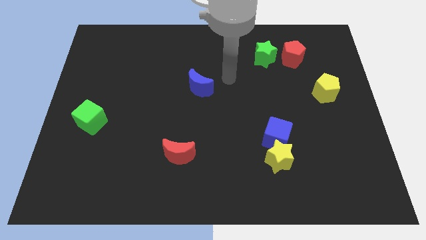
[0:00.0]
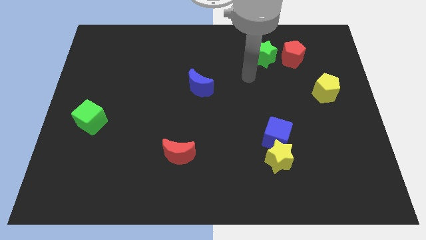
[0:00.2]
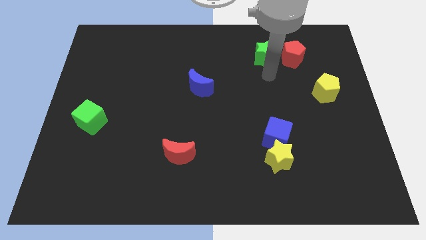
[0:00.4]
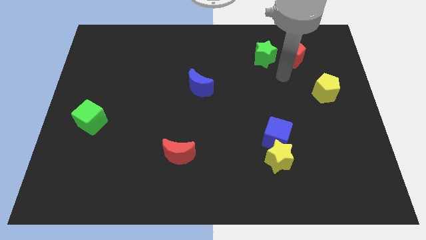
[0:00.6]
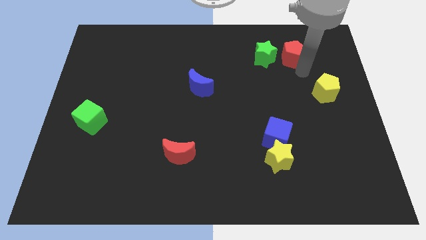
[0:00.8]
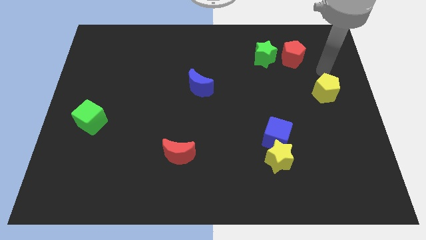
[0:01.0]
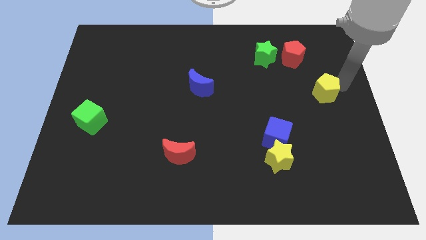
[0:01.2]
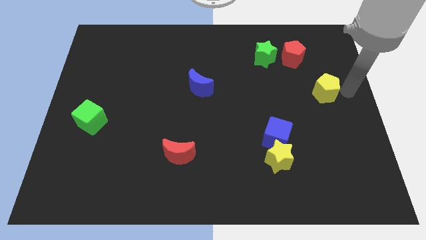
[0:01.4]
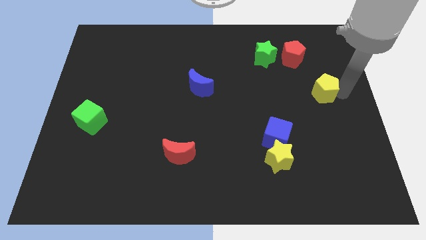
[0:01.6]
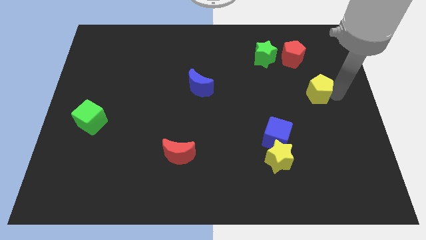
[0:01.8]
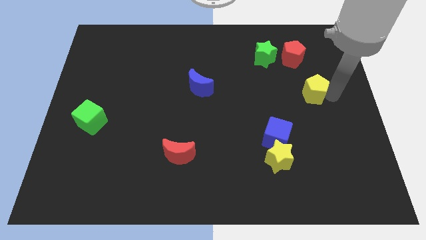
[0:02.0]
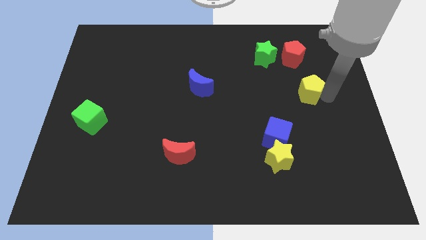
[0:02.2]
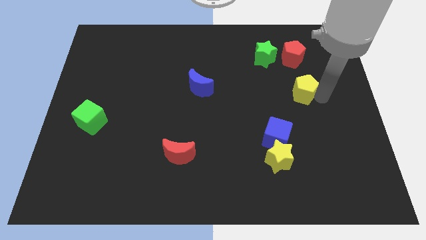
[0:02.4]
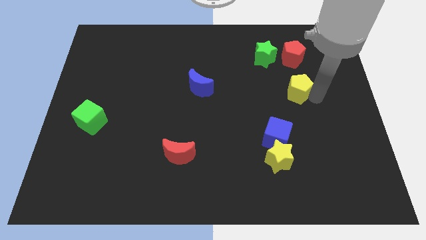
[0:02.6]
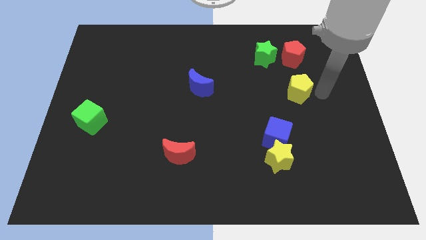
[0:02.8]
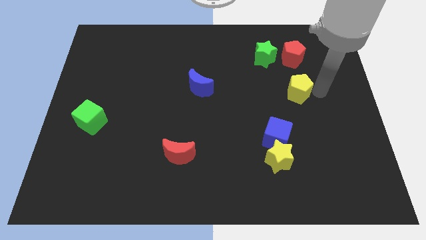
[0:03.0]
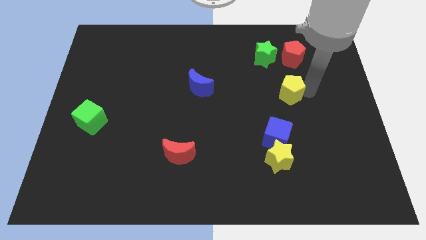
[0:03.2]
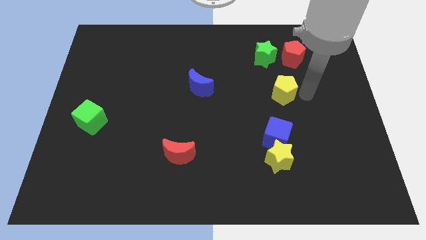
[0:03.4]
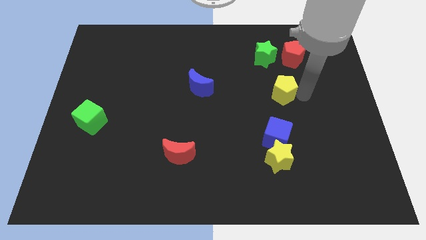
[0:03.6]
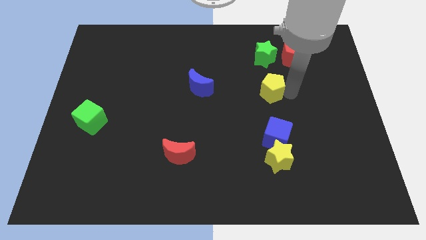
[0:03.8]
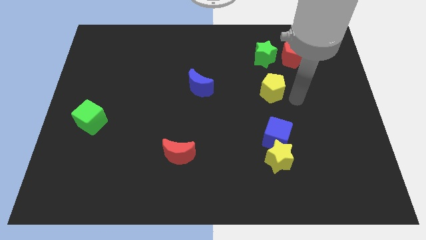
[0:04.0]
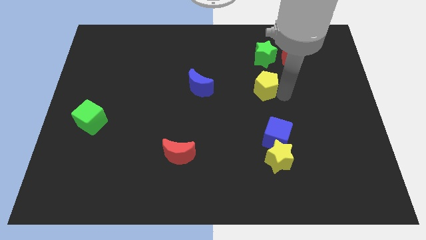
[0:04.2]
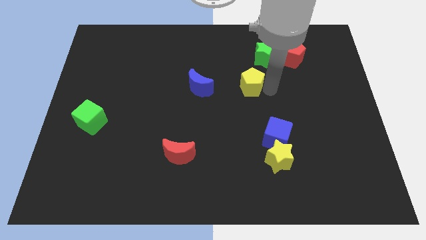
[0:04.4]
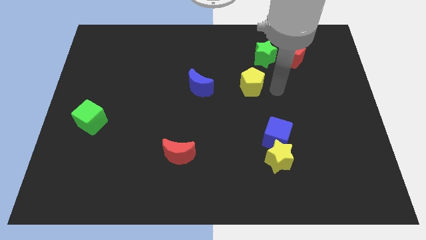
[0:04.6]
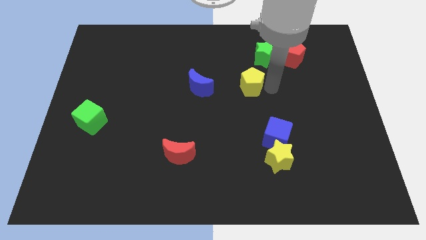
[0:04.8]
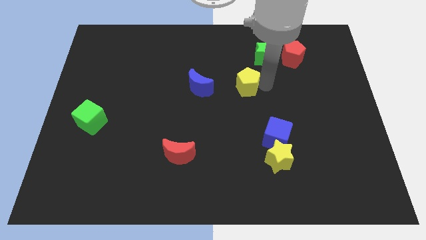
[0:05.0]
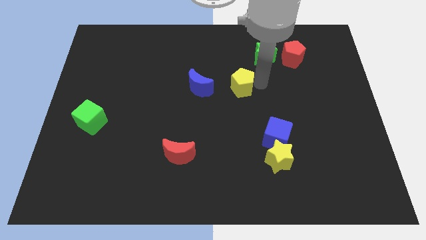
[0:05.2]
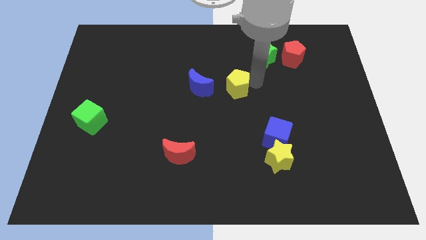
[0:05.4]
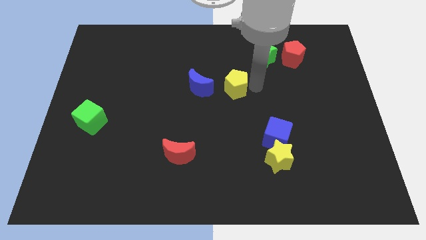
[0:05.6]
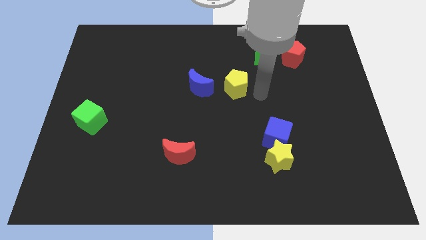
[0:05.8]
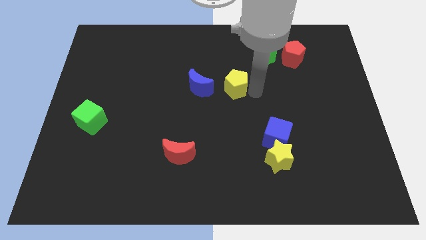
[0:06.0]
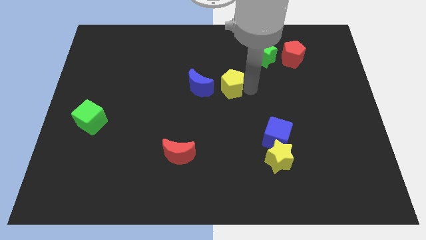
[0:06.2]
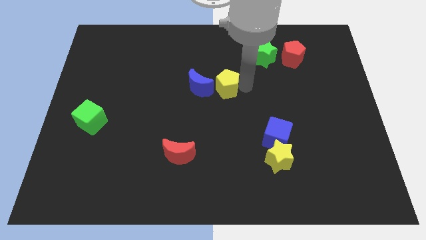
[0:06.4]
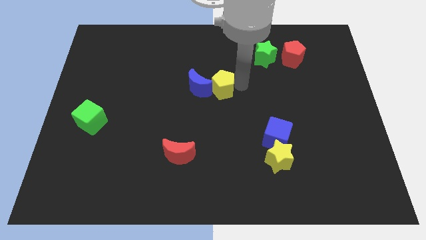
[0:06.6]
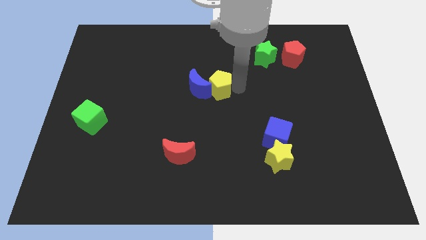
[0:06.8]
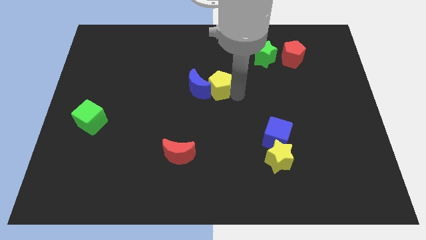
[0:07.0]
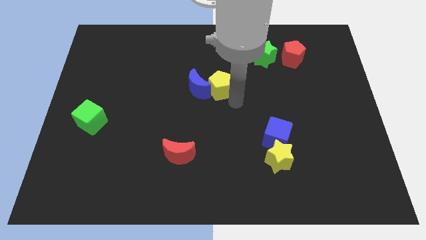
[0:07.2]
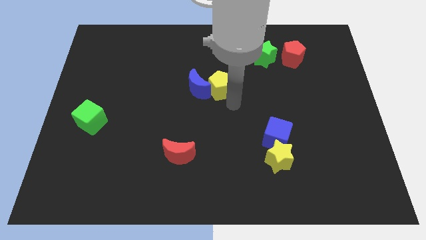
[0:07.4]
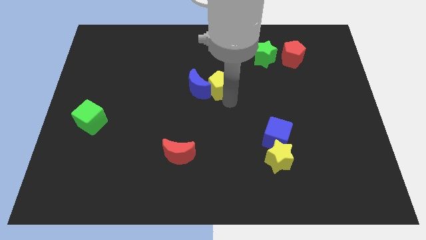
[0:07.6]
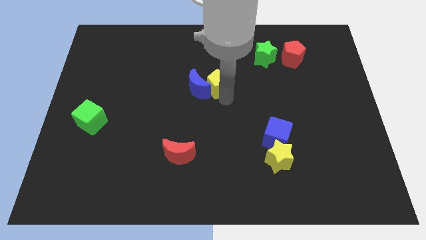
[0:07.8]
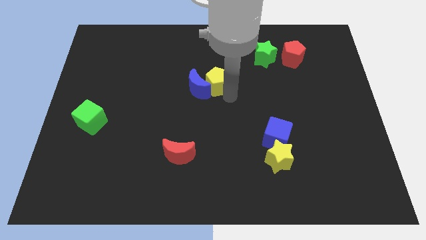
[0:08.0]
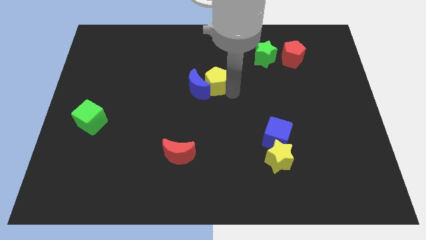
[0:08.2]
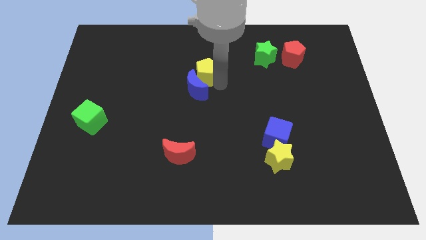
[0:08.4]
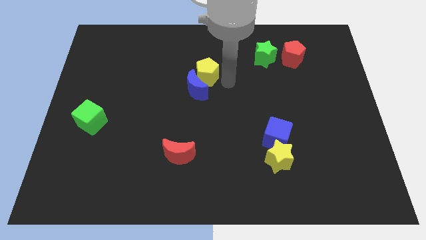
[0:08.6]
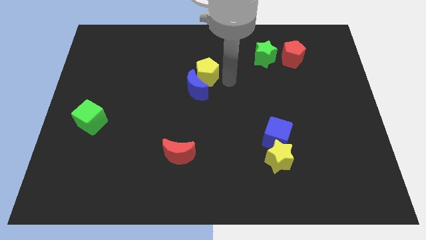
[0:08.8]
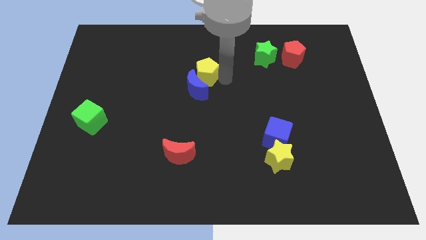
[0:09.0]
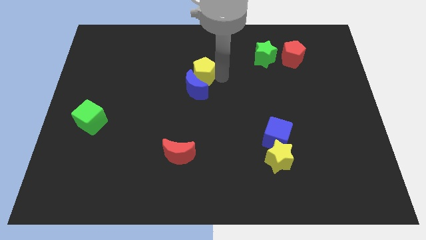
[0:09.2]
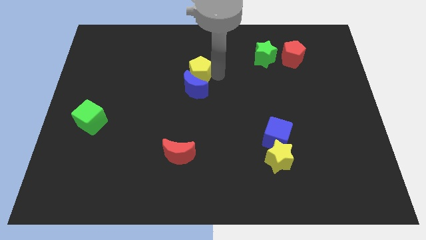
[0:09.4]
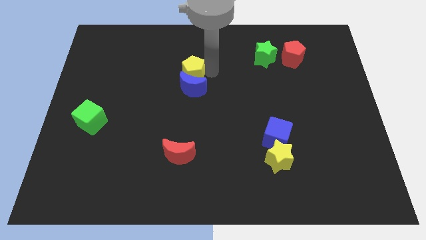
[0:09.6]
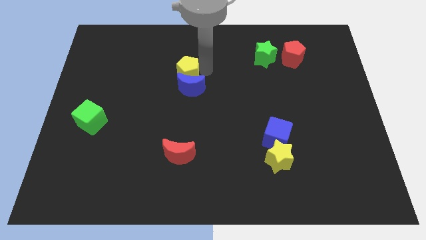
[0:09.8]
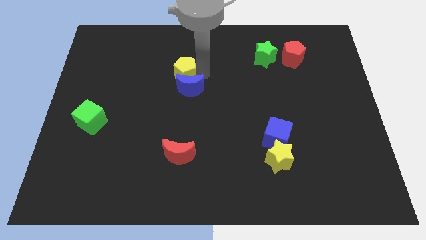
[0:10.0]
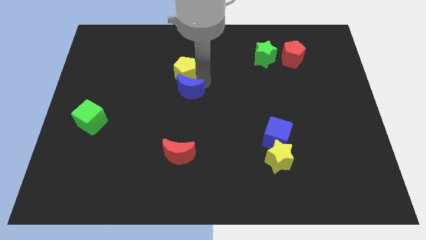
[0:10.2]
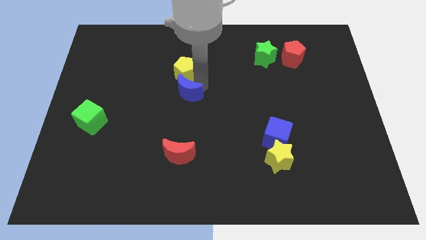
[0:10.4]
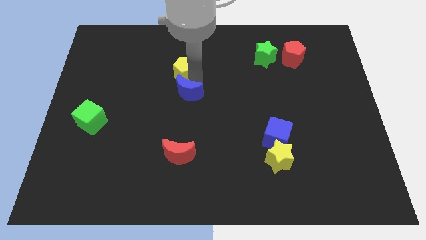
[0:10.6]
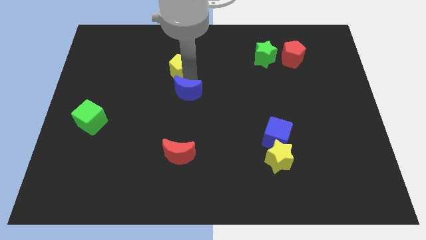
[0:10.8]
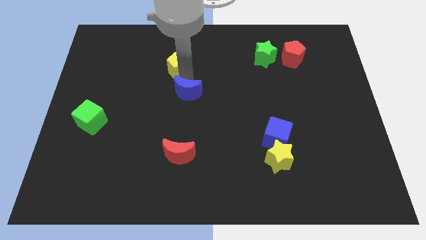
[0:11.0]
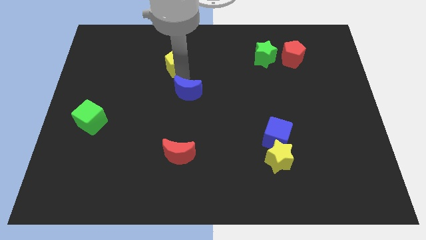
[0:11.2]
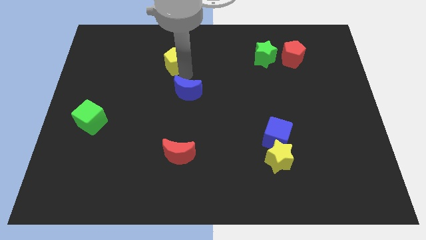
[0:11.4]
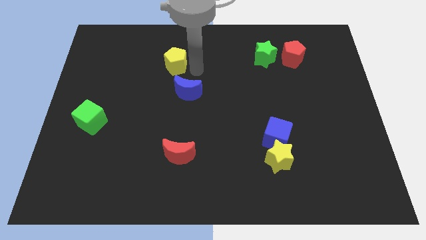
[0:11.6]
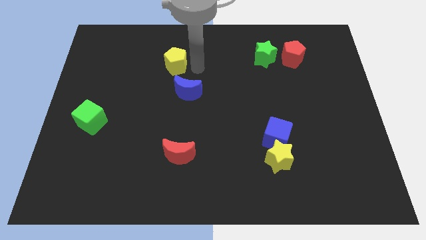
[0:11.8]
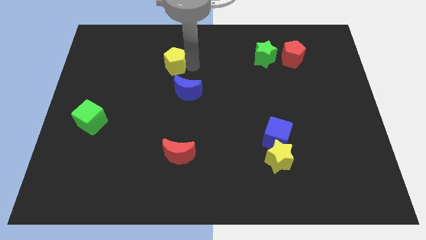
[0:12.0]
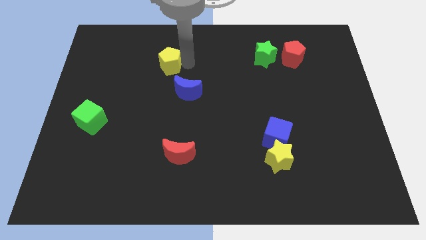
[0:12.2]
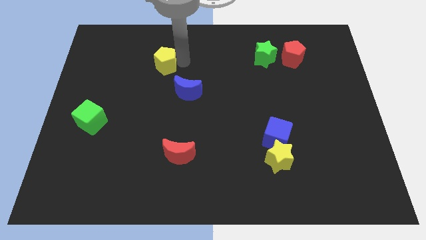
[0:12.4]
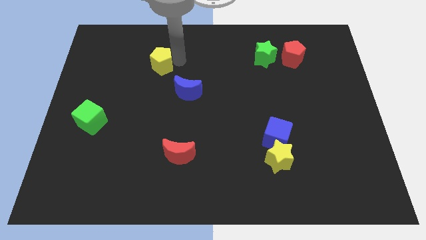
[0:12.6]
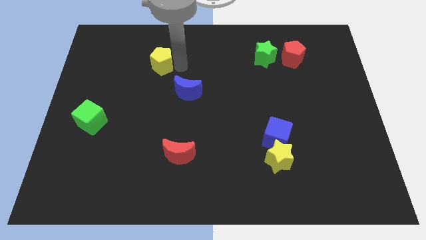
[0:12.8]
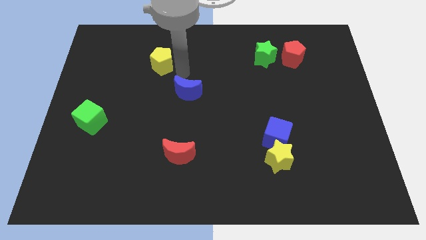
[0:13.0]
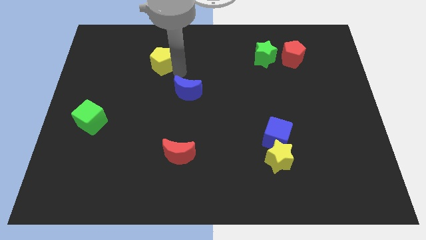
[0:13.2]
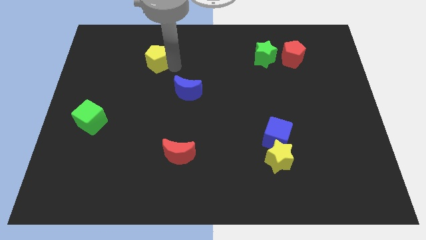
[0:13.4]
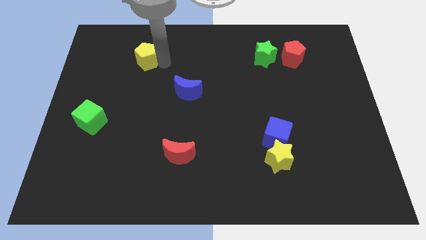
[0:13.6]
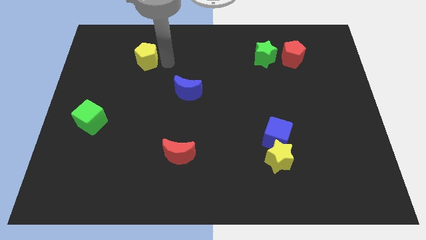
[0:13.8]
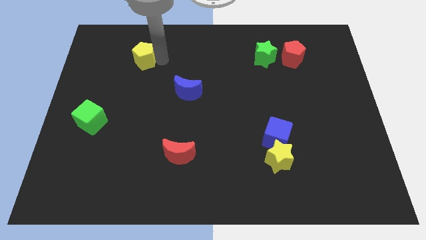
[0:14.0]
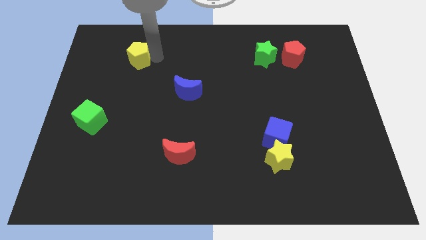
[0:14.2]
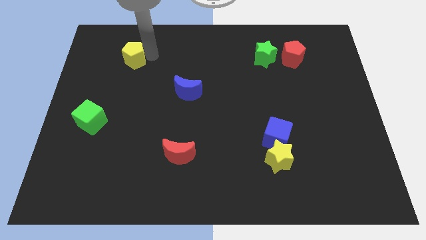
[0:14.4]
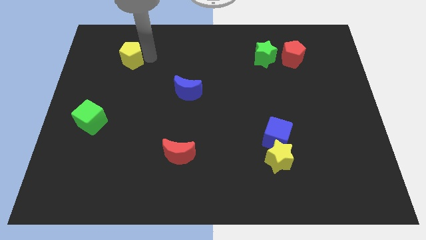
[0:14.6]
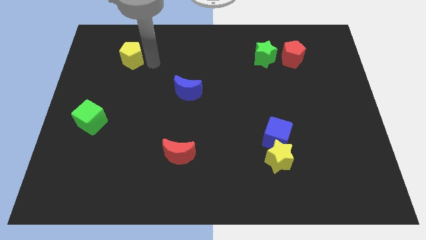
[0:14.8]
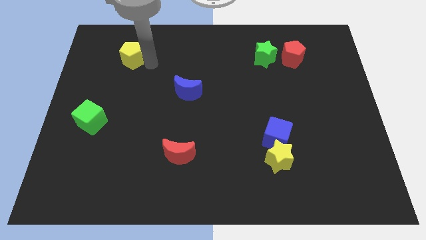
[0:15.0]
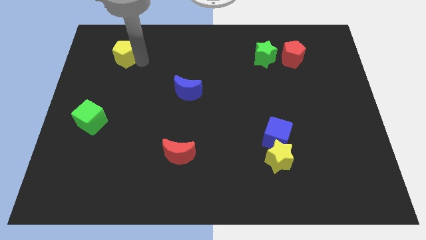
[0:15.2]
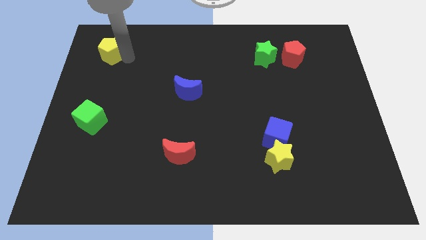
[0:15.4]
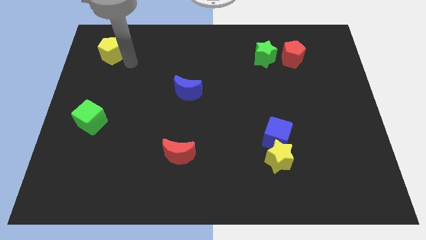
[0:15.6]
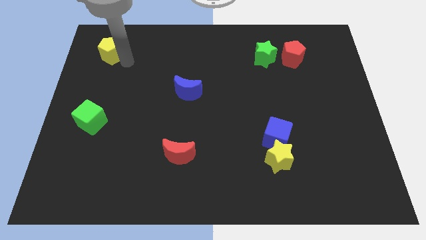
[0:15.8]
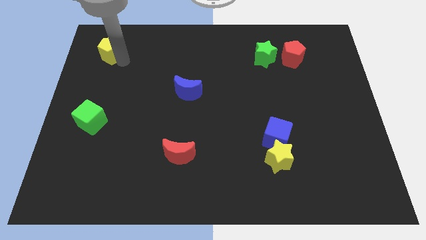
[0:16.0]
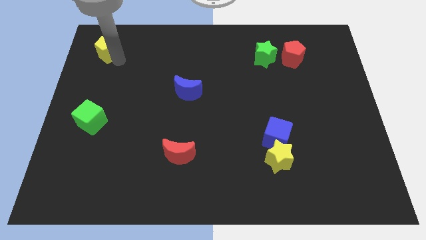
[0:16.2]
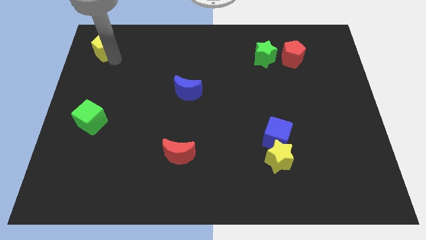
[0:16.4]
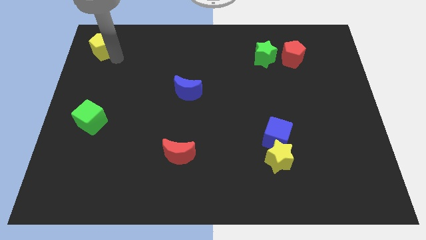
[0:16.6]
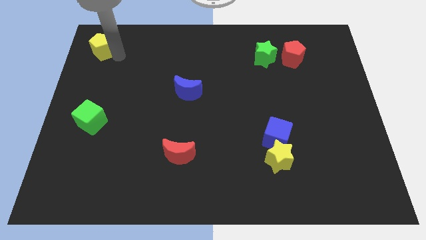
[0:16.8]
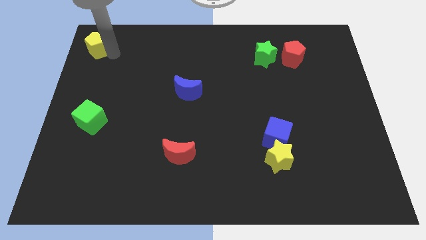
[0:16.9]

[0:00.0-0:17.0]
move the yellow pentagon to the top left corner
